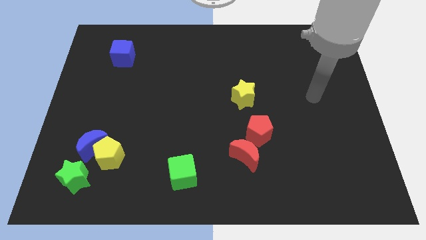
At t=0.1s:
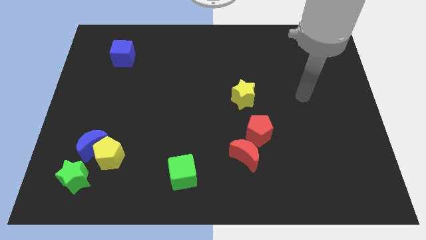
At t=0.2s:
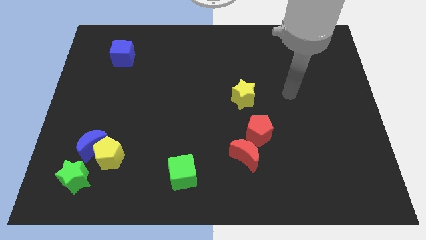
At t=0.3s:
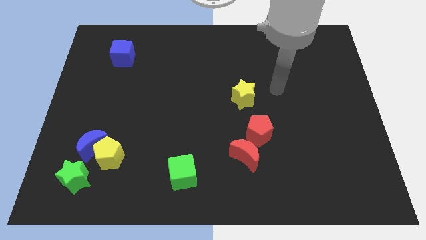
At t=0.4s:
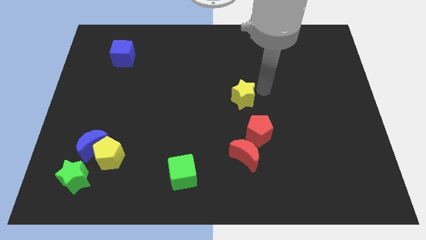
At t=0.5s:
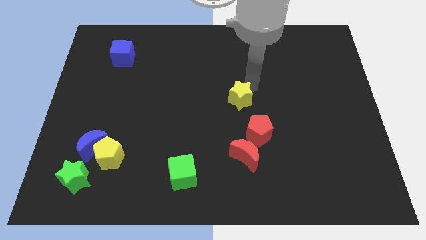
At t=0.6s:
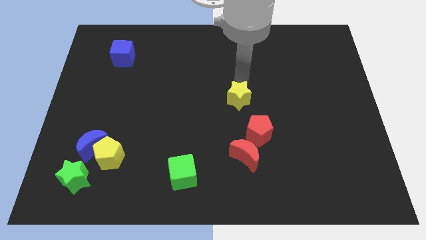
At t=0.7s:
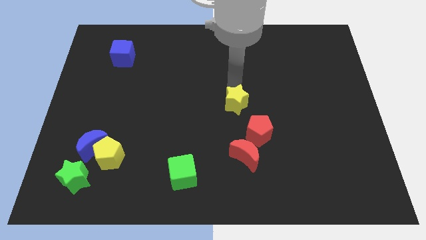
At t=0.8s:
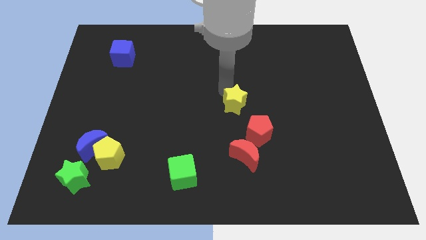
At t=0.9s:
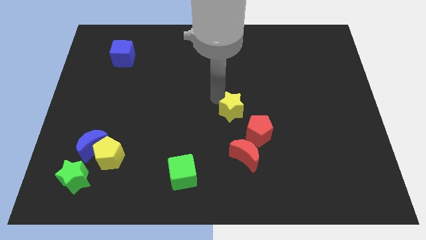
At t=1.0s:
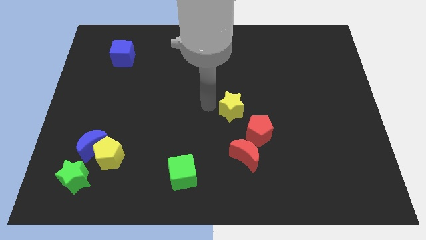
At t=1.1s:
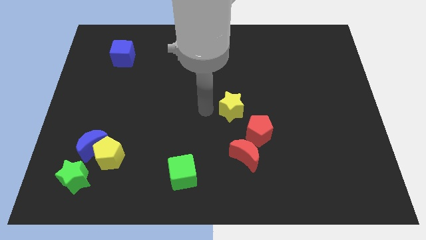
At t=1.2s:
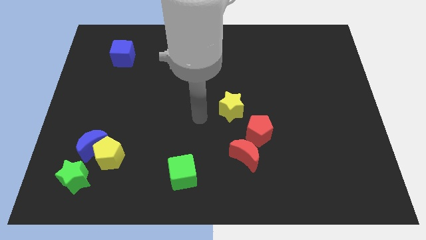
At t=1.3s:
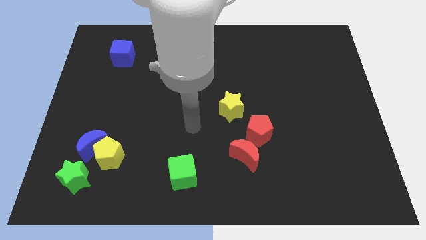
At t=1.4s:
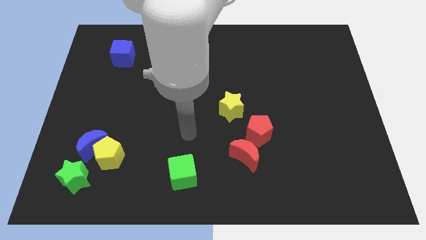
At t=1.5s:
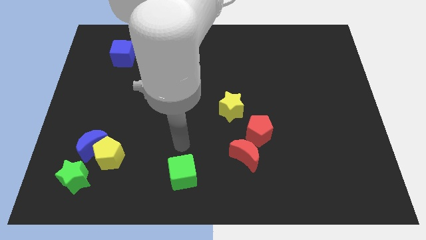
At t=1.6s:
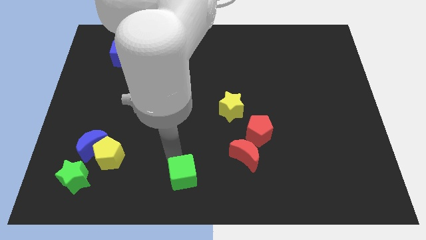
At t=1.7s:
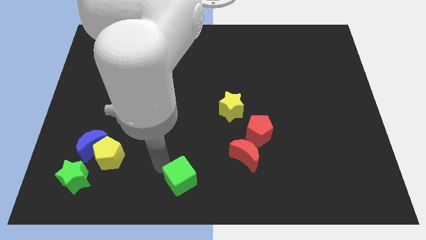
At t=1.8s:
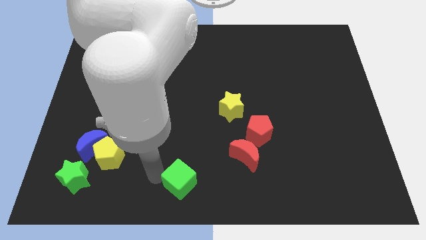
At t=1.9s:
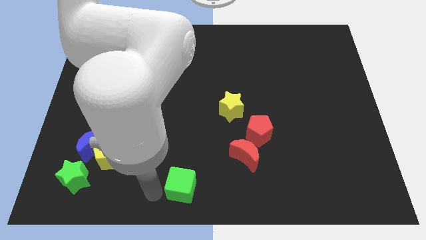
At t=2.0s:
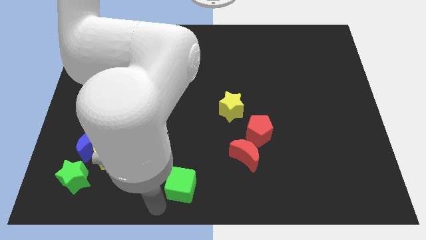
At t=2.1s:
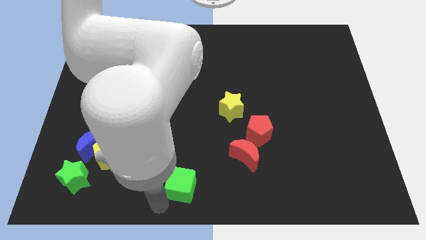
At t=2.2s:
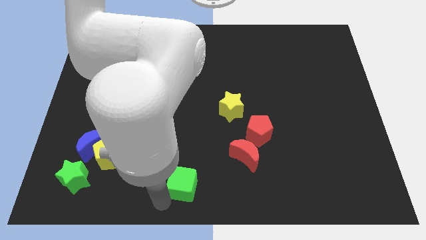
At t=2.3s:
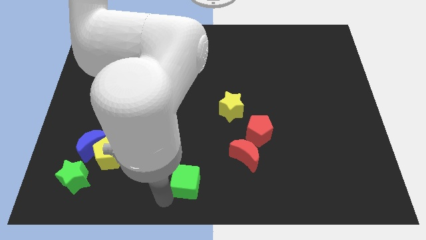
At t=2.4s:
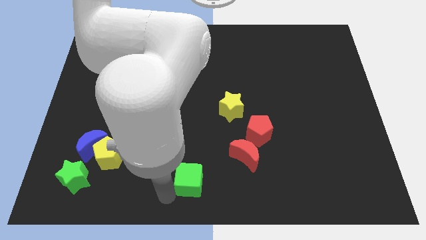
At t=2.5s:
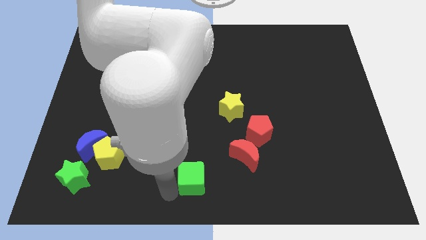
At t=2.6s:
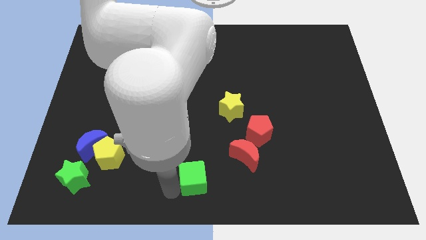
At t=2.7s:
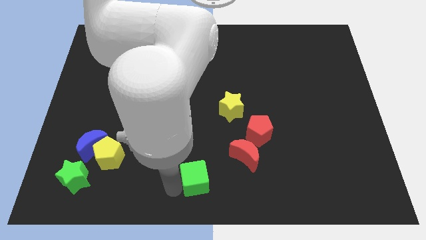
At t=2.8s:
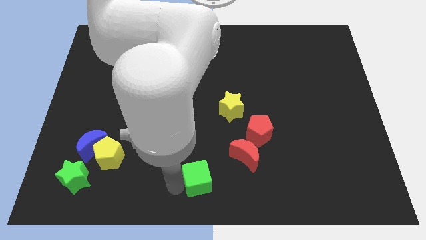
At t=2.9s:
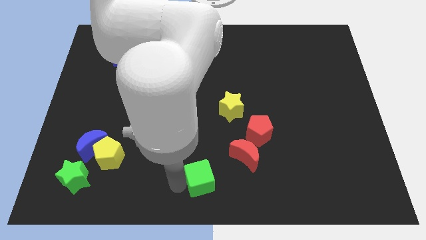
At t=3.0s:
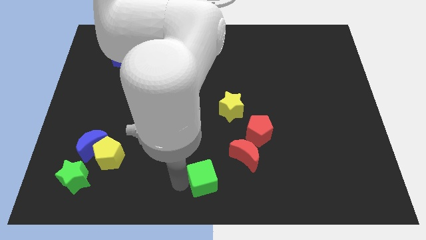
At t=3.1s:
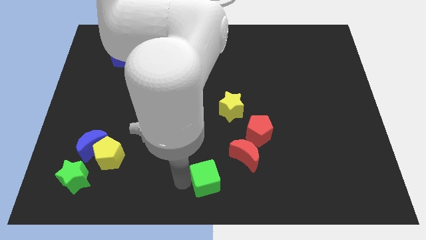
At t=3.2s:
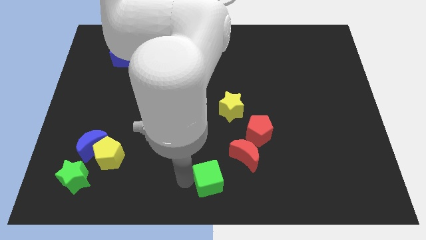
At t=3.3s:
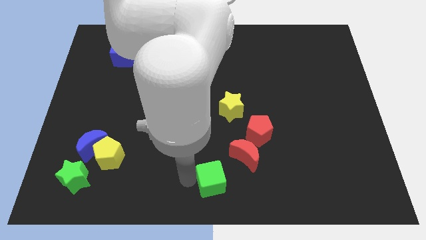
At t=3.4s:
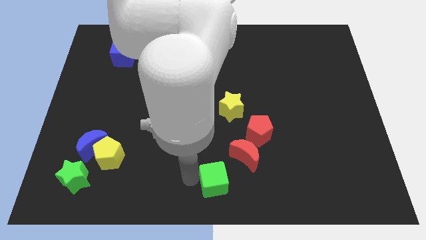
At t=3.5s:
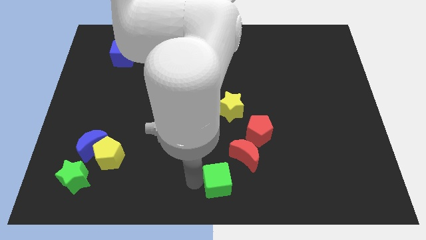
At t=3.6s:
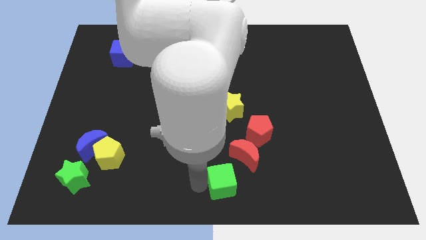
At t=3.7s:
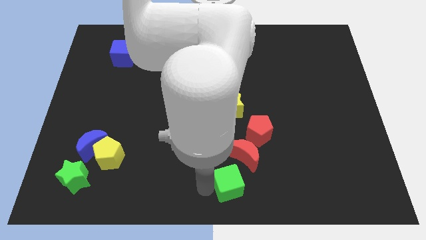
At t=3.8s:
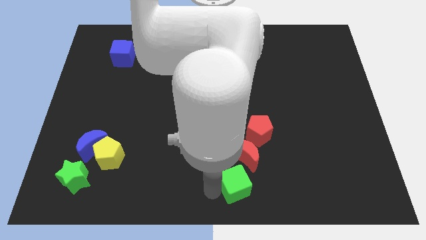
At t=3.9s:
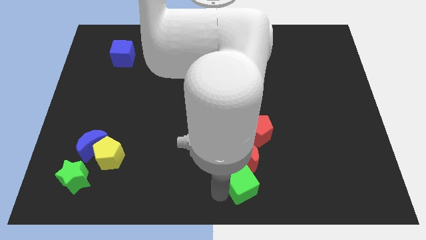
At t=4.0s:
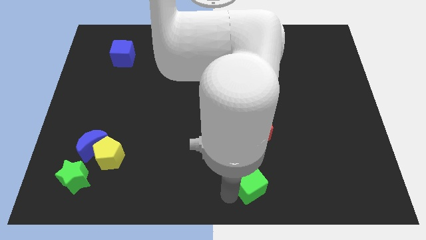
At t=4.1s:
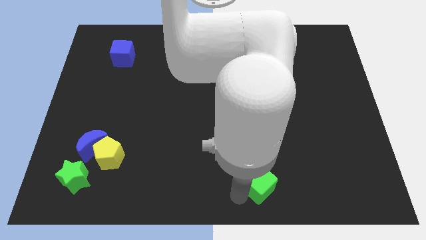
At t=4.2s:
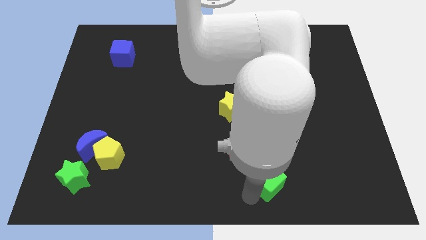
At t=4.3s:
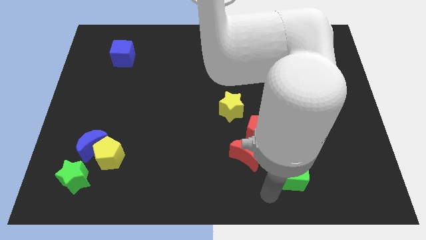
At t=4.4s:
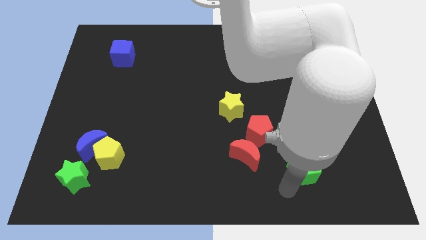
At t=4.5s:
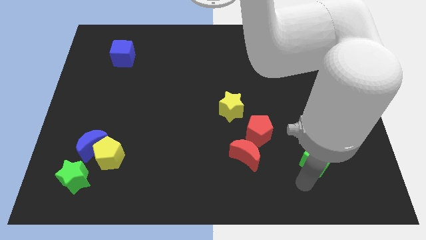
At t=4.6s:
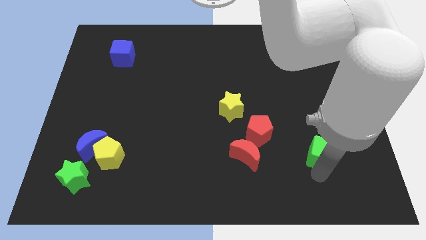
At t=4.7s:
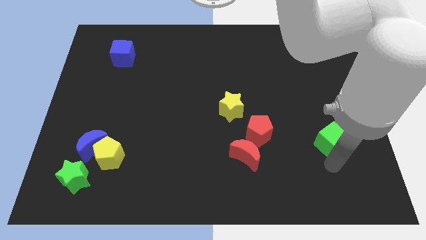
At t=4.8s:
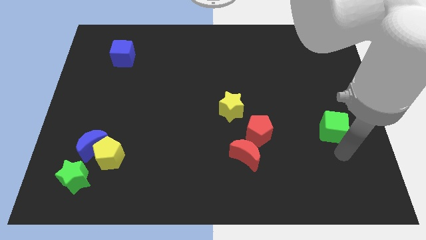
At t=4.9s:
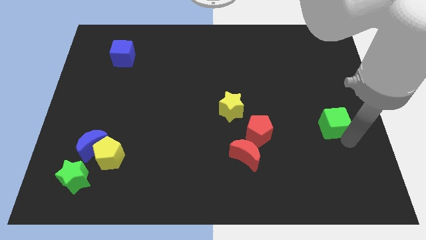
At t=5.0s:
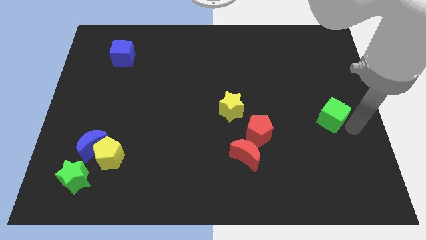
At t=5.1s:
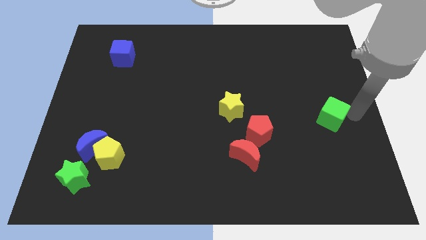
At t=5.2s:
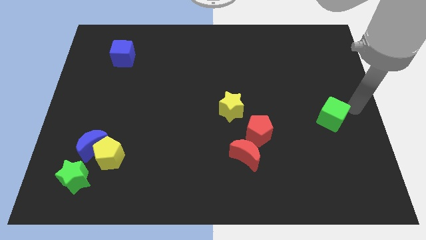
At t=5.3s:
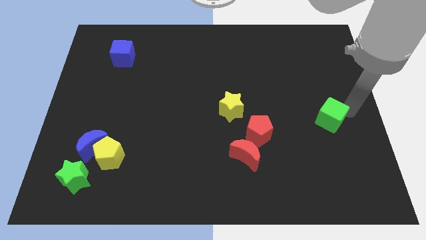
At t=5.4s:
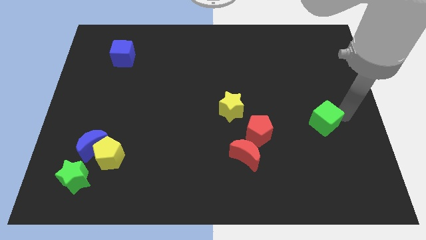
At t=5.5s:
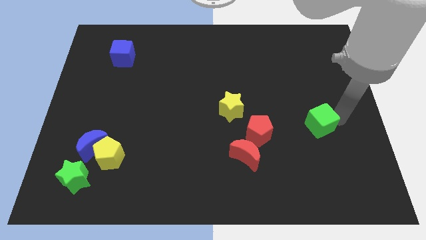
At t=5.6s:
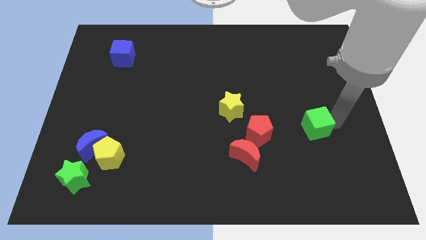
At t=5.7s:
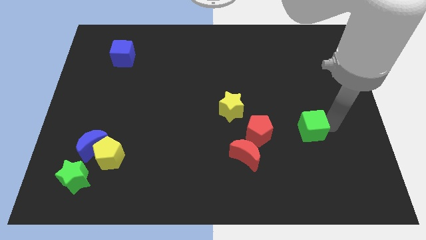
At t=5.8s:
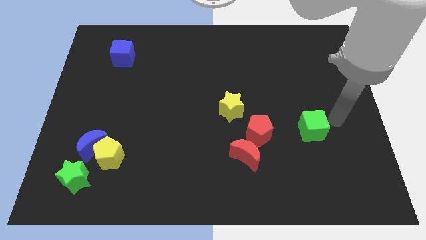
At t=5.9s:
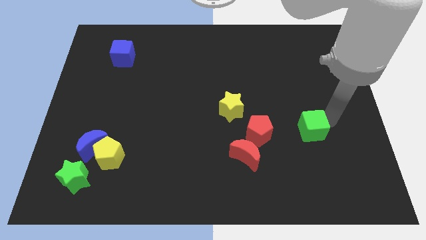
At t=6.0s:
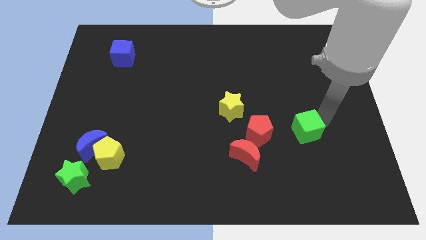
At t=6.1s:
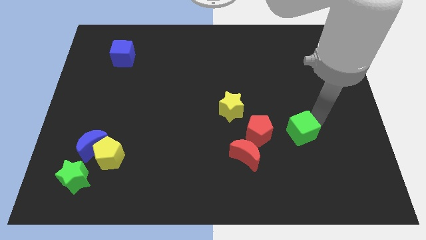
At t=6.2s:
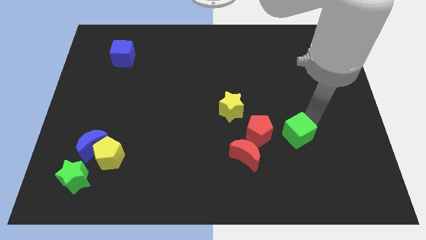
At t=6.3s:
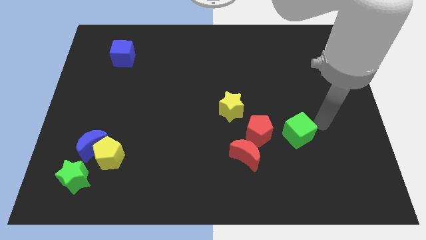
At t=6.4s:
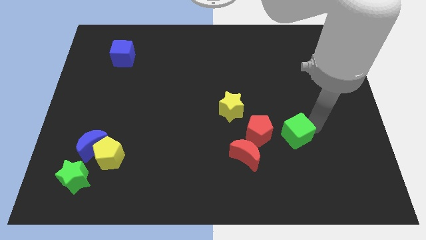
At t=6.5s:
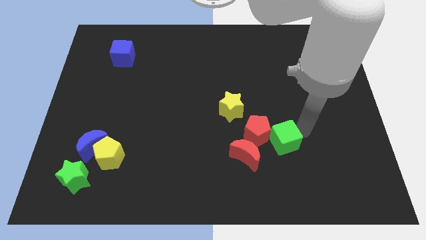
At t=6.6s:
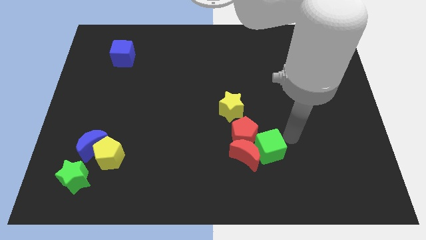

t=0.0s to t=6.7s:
put the green cube towards the red moon

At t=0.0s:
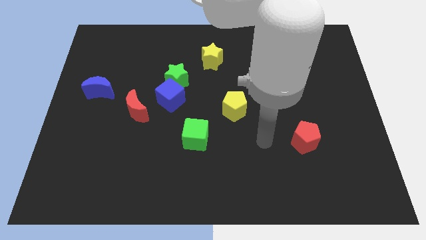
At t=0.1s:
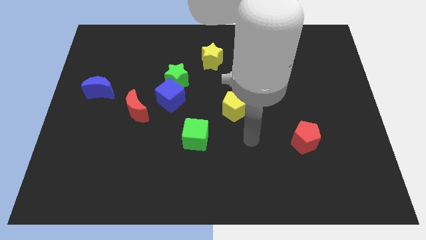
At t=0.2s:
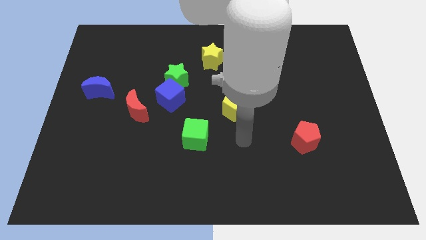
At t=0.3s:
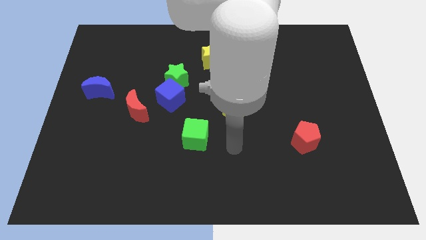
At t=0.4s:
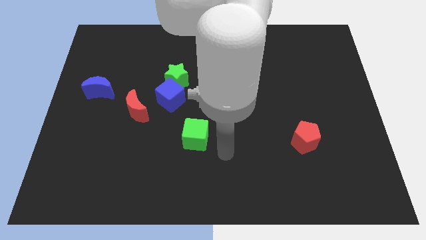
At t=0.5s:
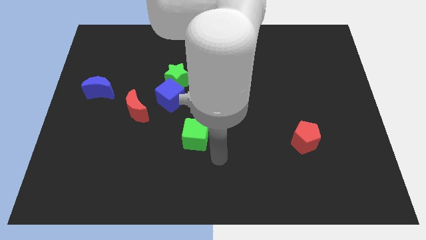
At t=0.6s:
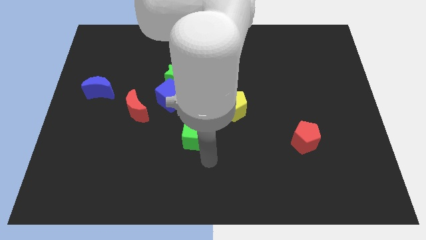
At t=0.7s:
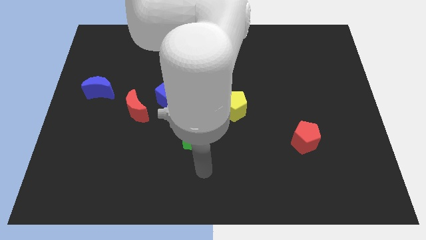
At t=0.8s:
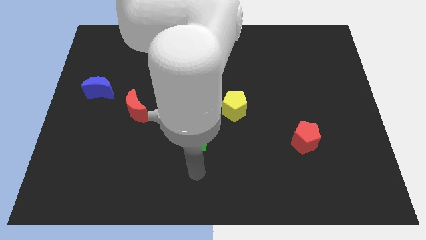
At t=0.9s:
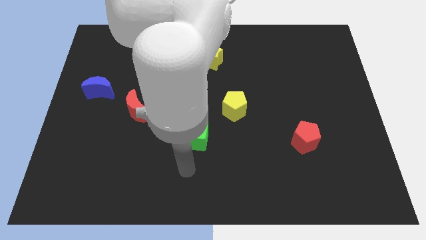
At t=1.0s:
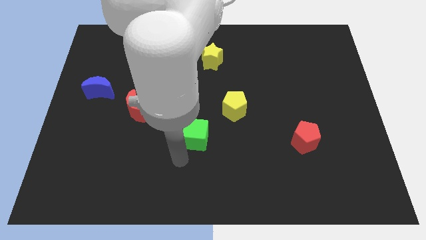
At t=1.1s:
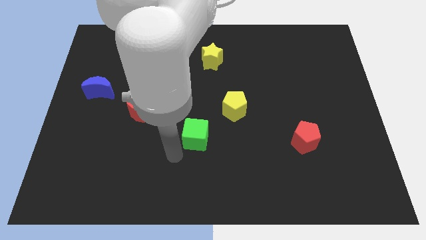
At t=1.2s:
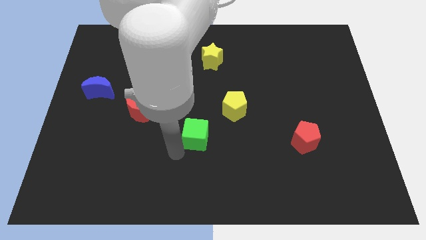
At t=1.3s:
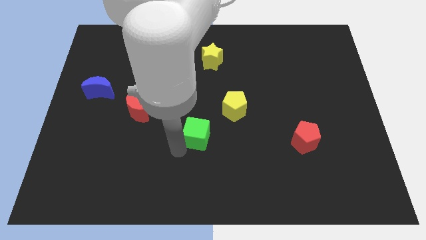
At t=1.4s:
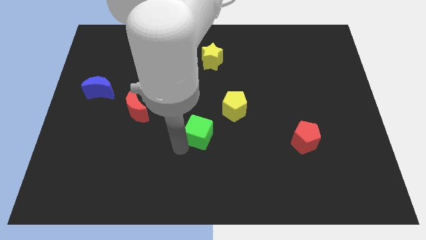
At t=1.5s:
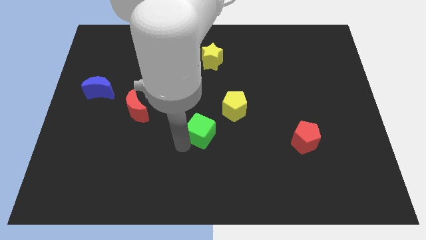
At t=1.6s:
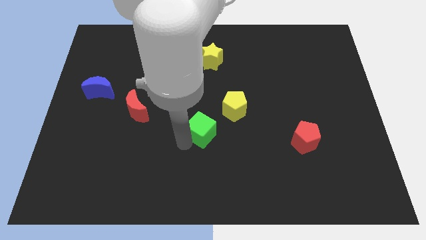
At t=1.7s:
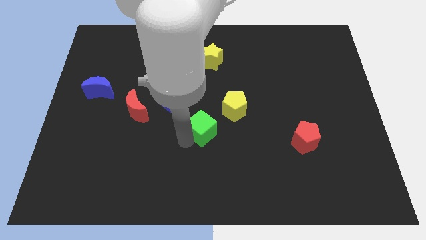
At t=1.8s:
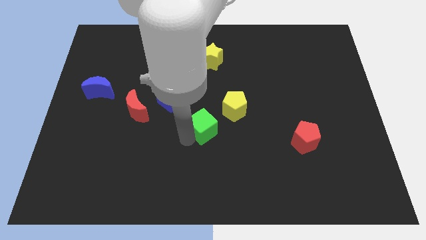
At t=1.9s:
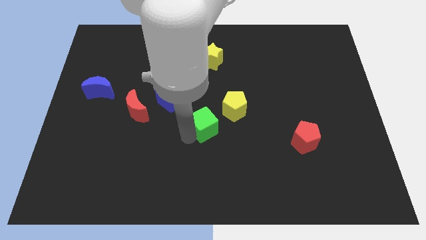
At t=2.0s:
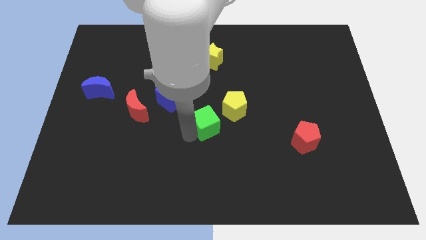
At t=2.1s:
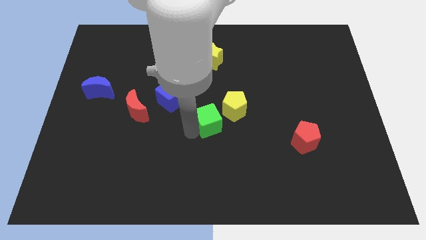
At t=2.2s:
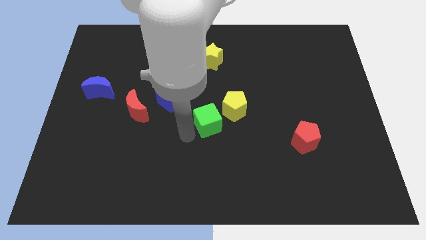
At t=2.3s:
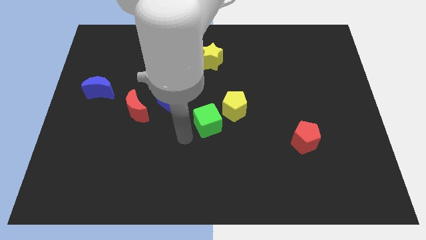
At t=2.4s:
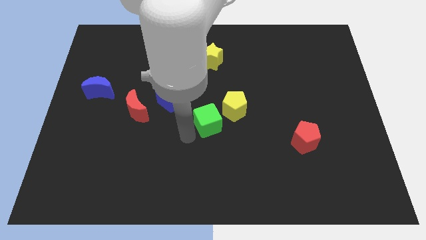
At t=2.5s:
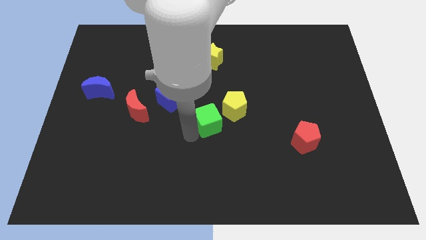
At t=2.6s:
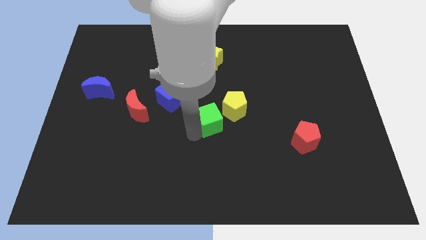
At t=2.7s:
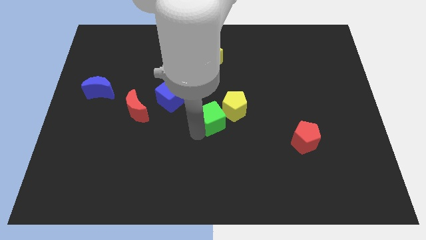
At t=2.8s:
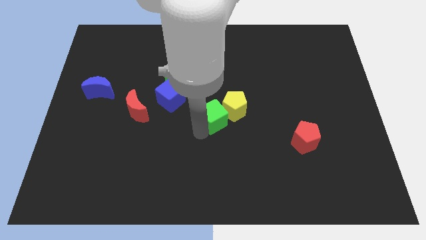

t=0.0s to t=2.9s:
move the green cube next to the yellow pentagon
